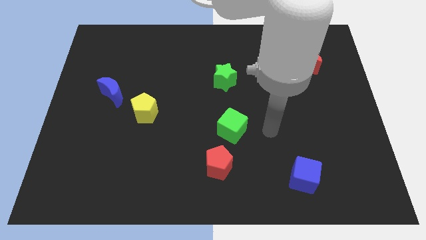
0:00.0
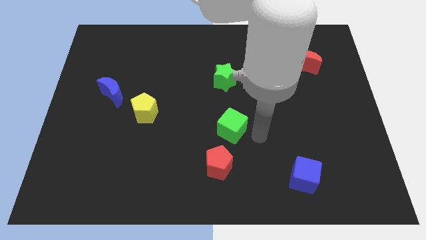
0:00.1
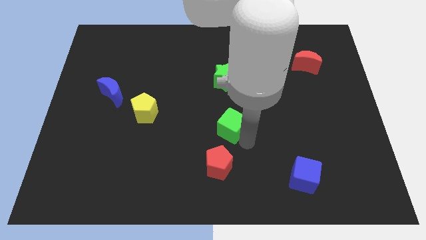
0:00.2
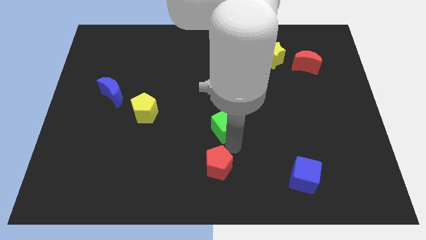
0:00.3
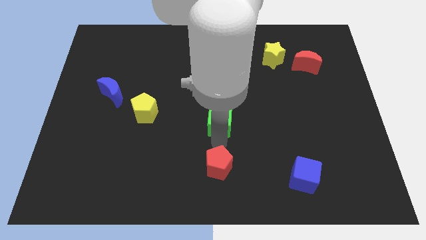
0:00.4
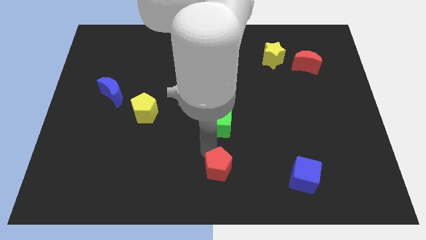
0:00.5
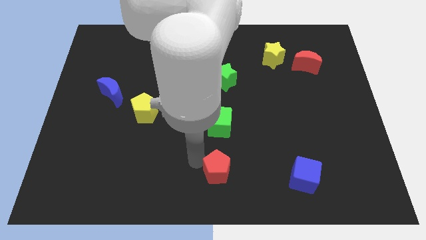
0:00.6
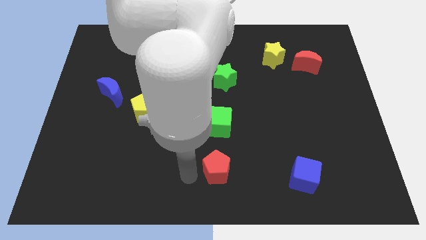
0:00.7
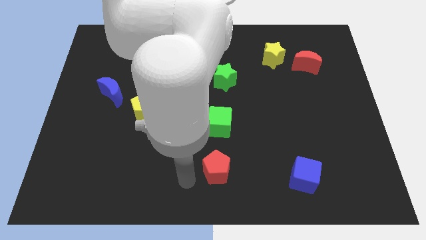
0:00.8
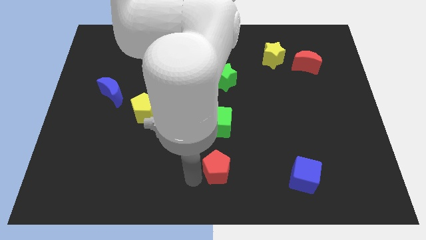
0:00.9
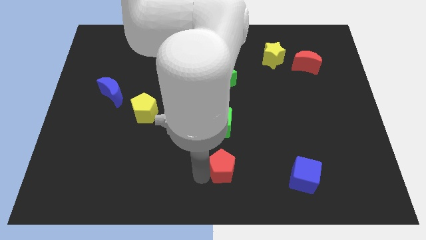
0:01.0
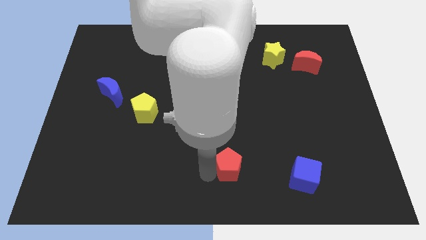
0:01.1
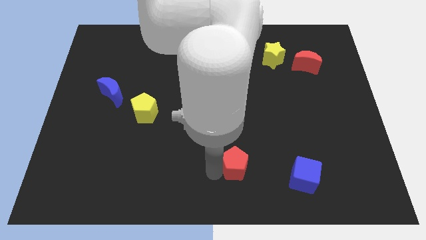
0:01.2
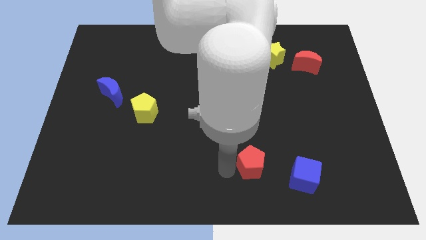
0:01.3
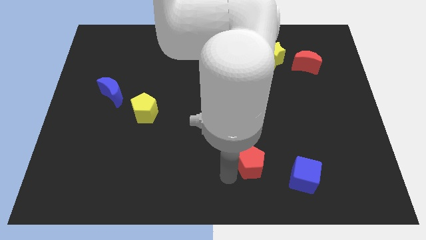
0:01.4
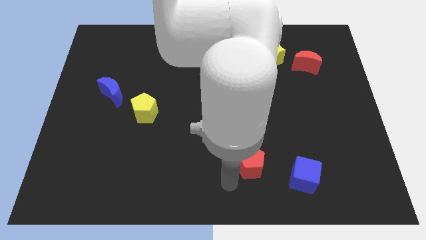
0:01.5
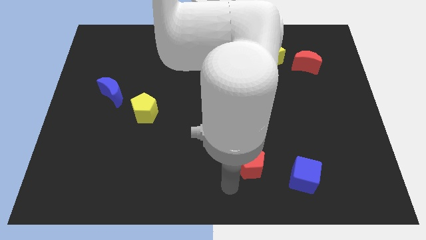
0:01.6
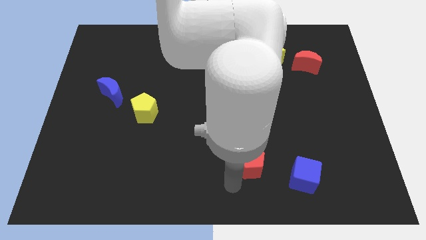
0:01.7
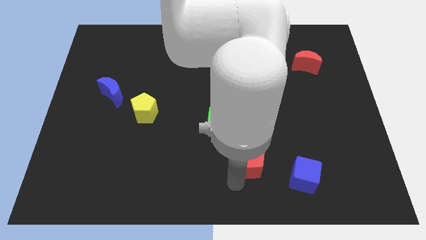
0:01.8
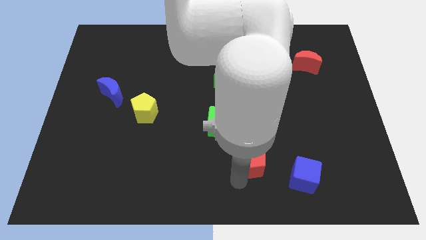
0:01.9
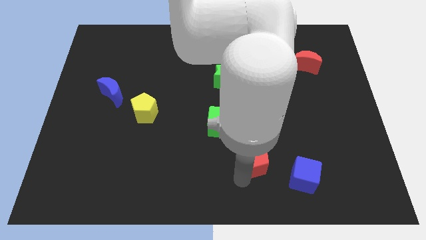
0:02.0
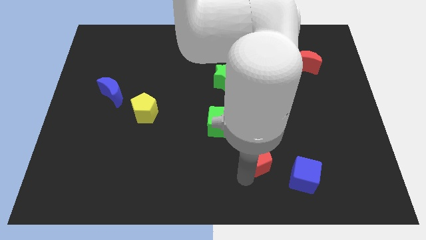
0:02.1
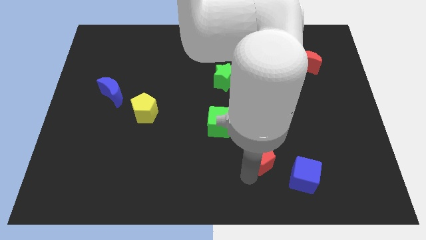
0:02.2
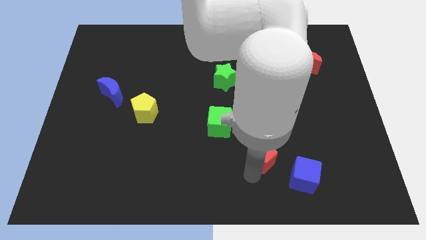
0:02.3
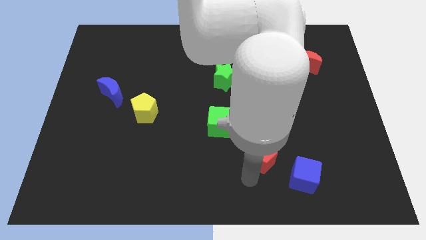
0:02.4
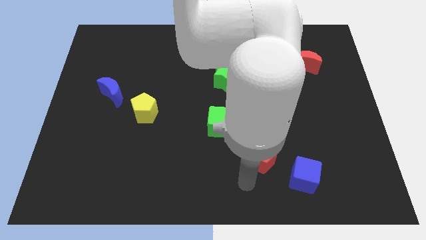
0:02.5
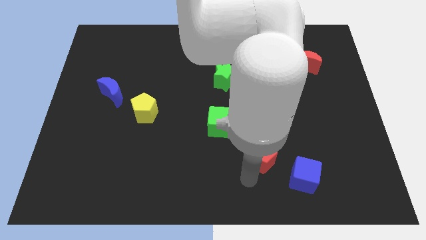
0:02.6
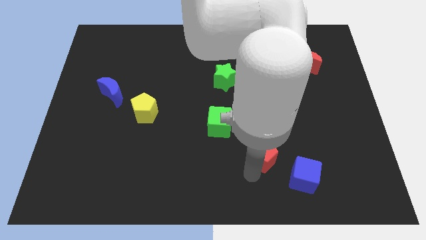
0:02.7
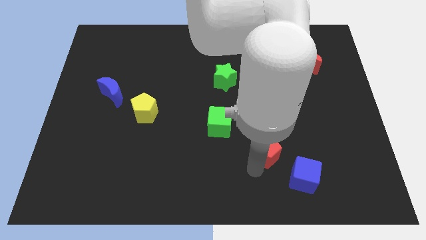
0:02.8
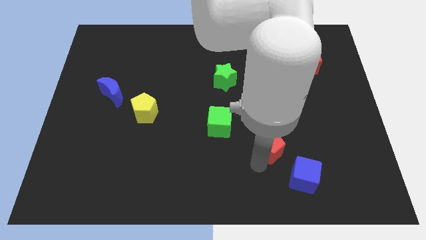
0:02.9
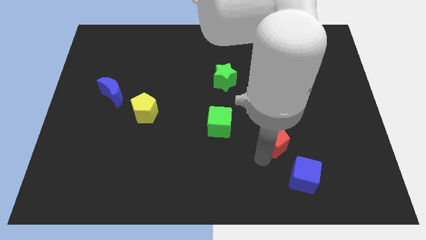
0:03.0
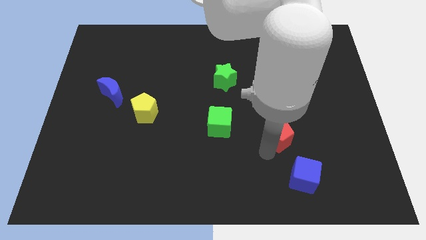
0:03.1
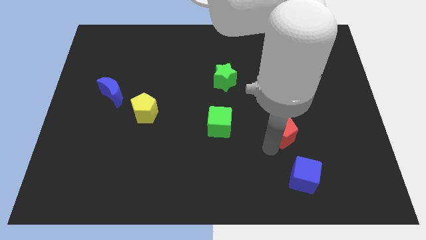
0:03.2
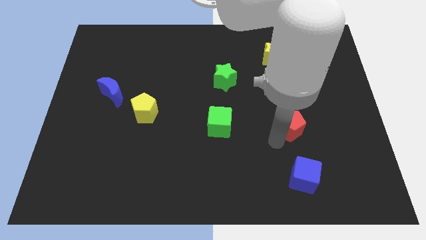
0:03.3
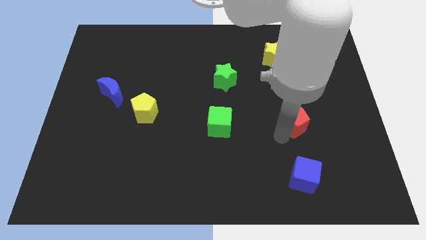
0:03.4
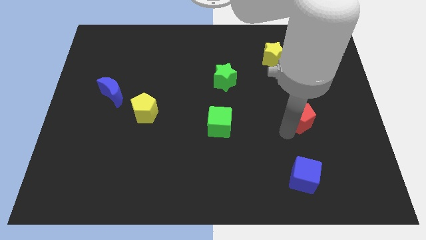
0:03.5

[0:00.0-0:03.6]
move the red pentagon up and to the right

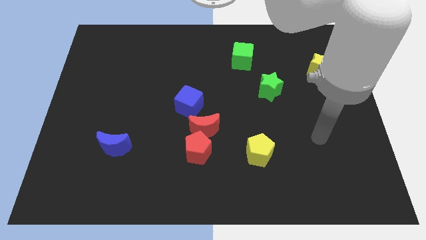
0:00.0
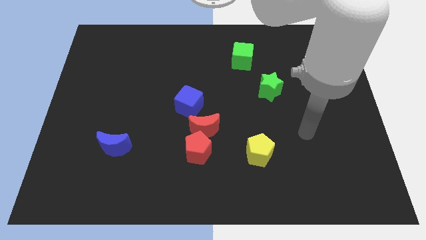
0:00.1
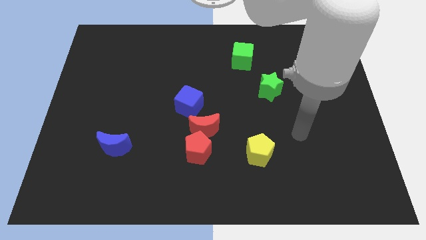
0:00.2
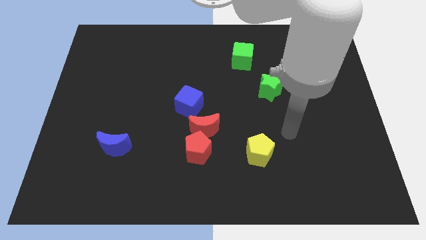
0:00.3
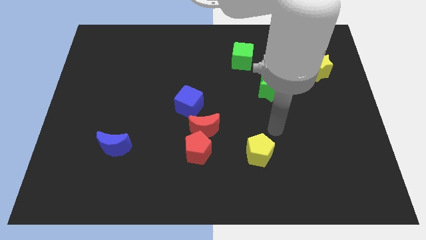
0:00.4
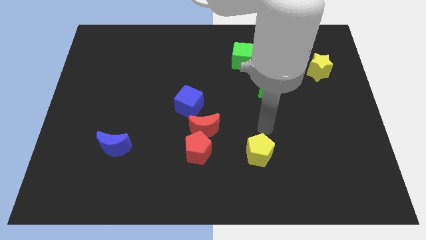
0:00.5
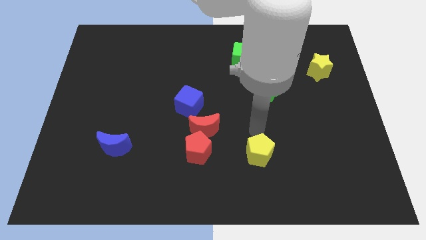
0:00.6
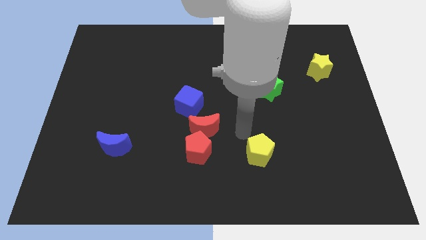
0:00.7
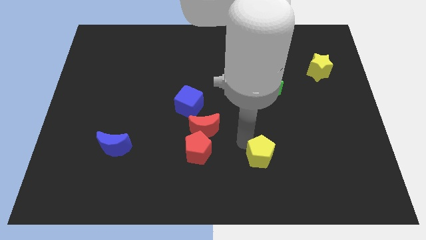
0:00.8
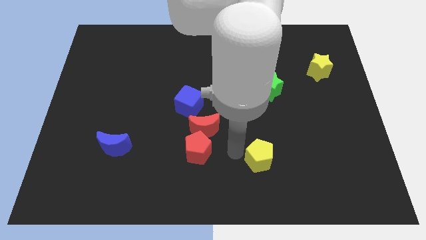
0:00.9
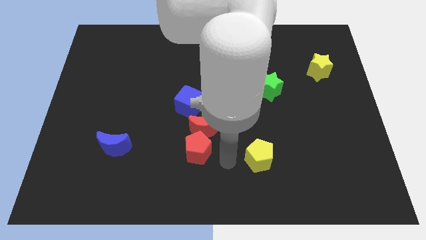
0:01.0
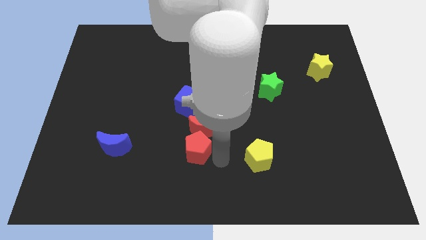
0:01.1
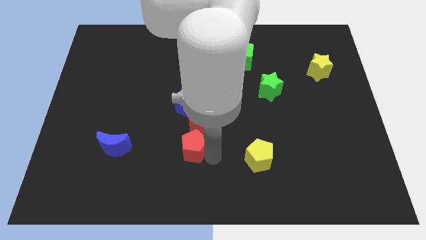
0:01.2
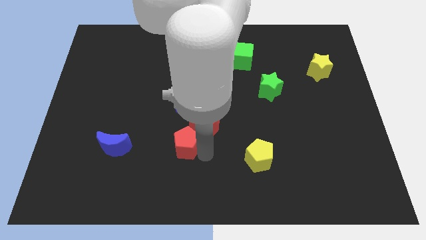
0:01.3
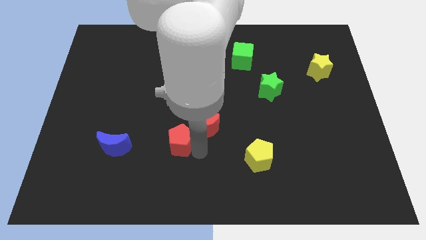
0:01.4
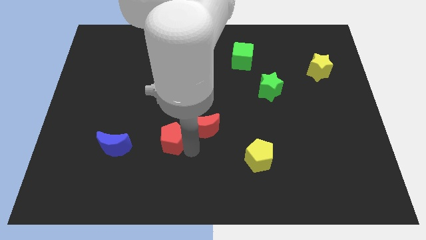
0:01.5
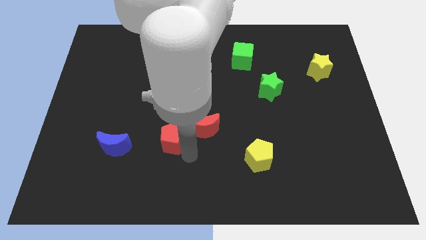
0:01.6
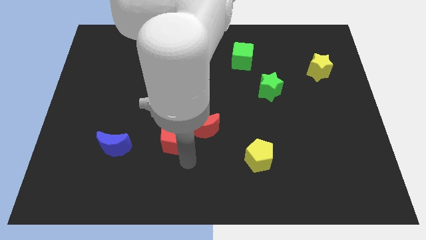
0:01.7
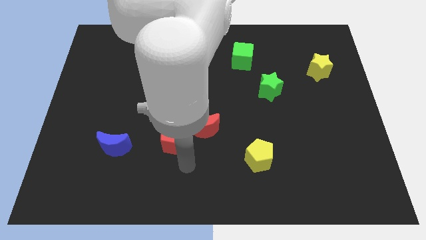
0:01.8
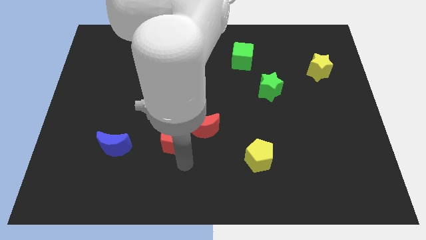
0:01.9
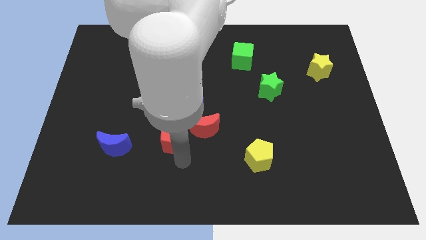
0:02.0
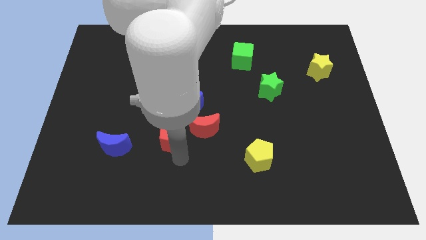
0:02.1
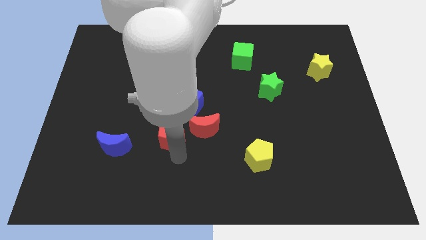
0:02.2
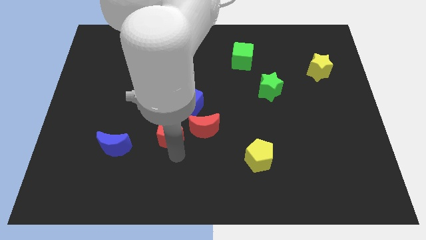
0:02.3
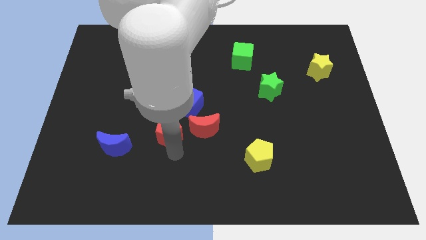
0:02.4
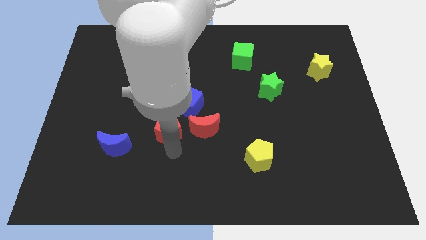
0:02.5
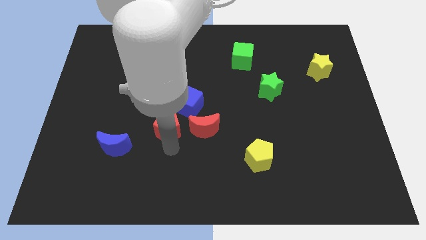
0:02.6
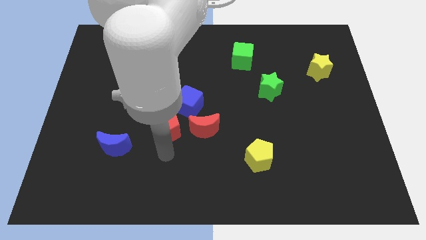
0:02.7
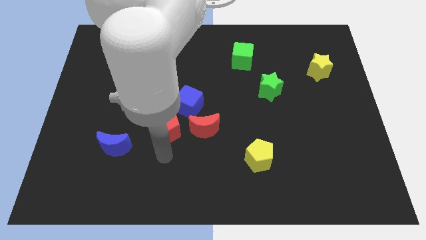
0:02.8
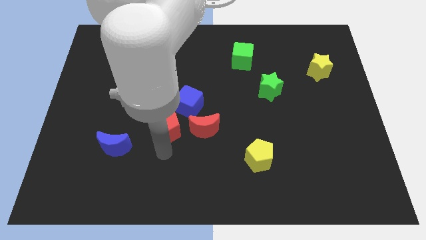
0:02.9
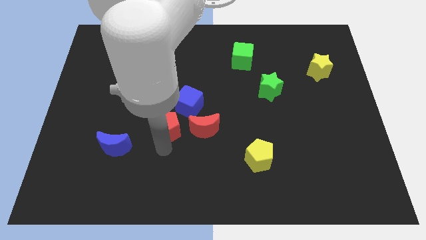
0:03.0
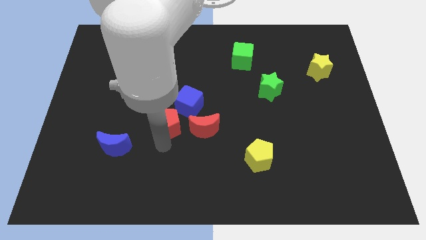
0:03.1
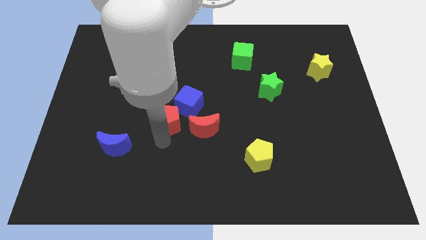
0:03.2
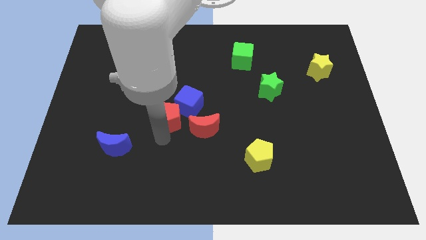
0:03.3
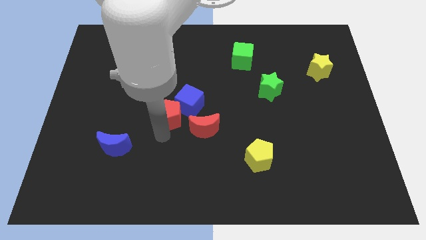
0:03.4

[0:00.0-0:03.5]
move the red pentagon a little bit up

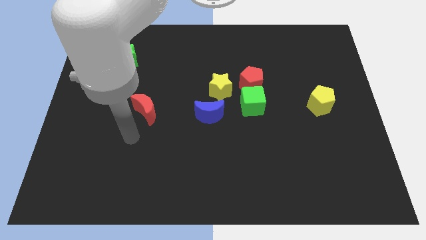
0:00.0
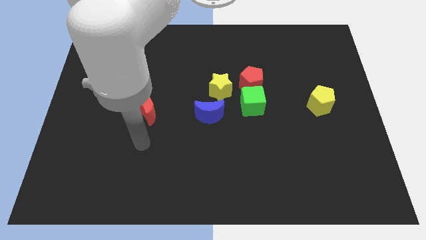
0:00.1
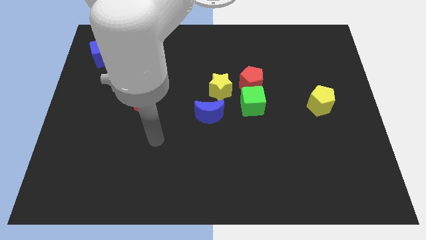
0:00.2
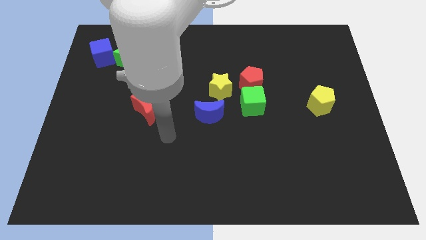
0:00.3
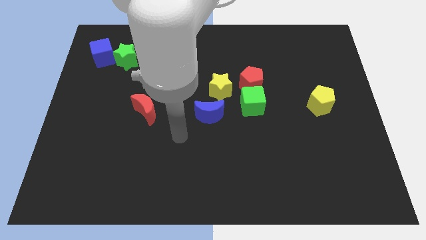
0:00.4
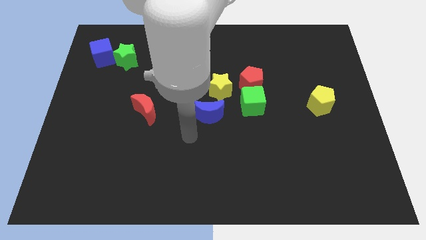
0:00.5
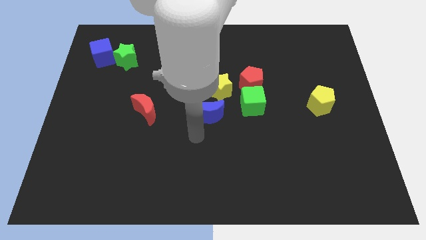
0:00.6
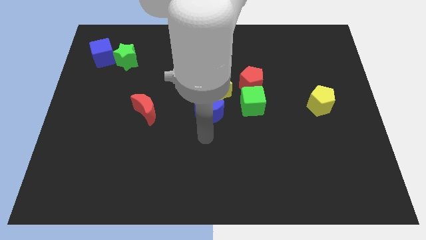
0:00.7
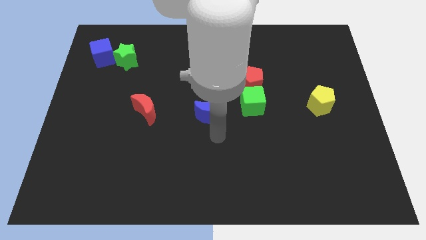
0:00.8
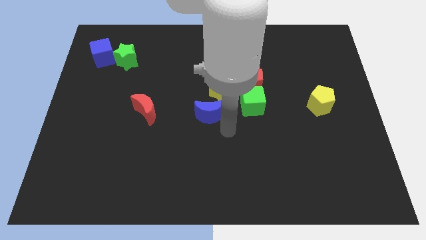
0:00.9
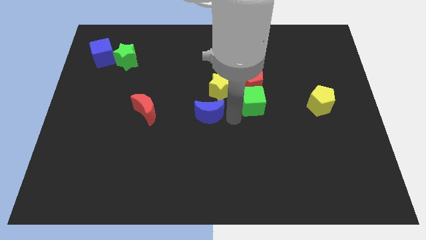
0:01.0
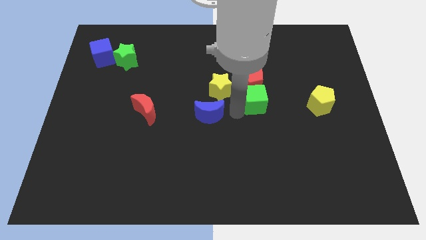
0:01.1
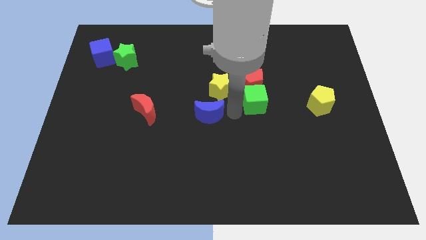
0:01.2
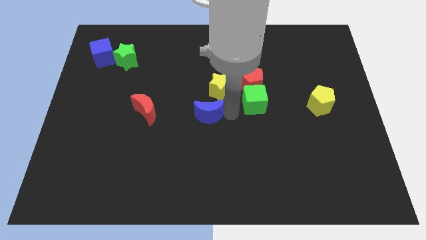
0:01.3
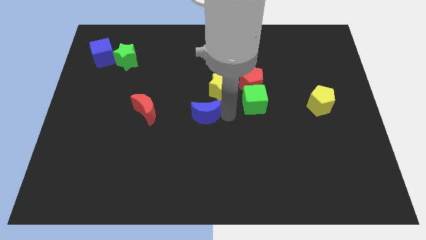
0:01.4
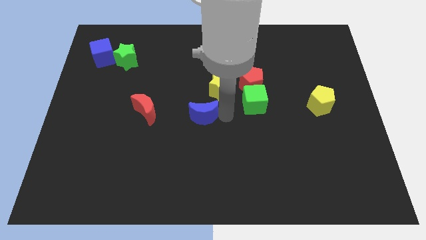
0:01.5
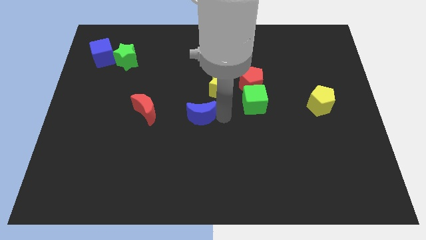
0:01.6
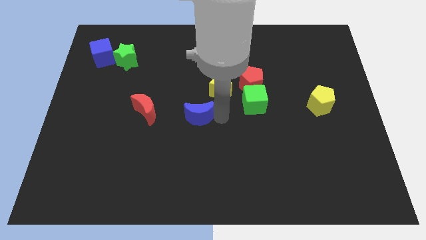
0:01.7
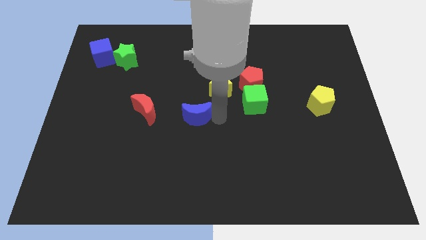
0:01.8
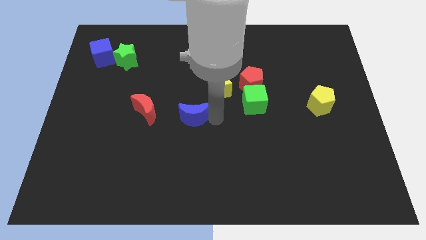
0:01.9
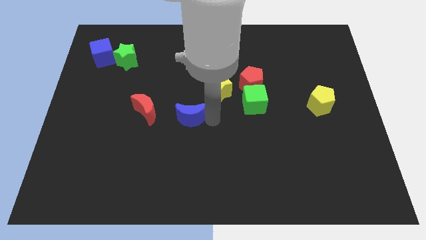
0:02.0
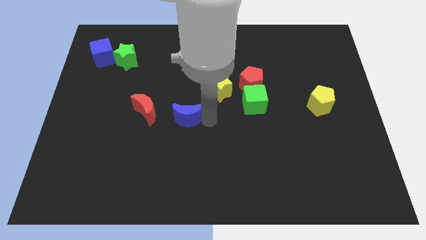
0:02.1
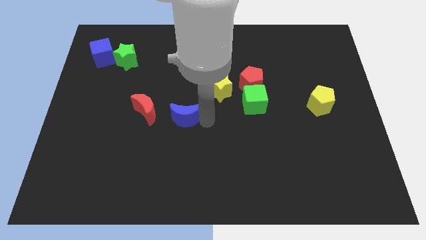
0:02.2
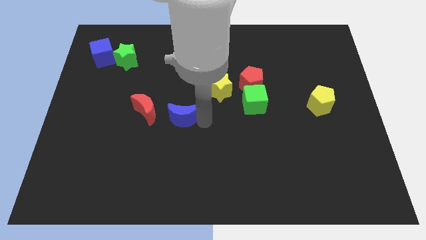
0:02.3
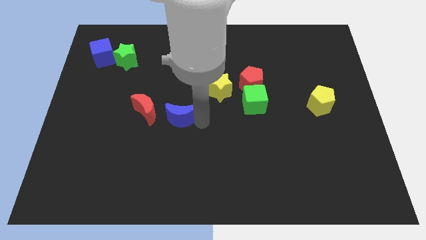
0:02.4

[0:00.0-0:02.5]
push the blue moon to the left a little bit
